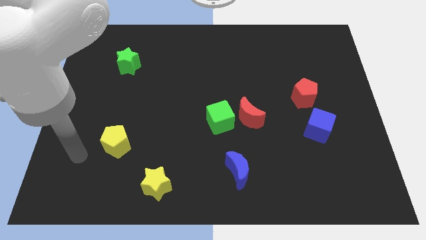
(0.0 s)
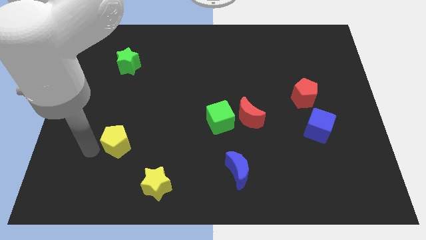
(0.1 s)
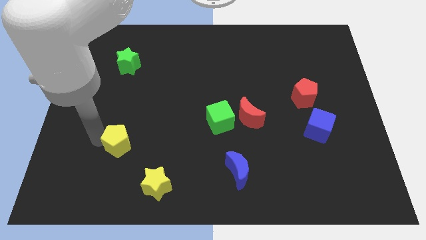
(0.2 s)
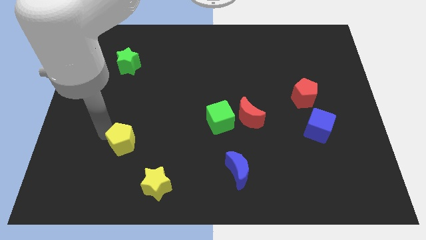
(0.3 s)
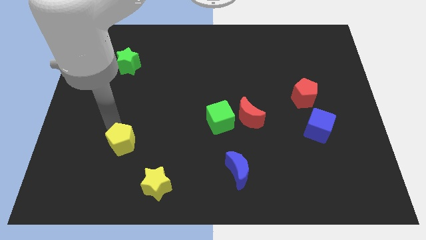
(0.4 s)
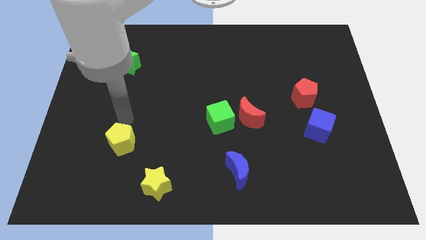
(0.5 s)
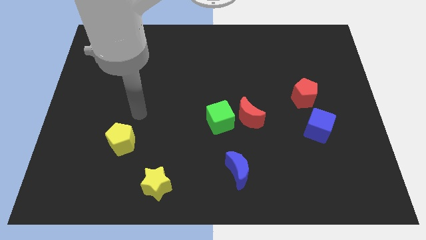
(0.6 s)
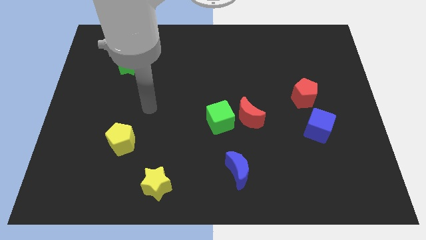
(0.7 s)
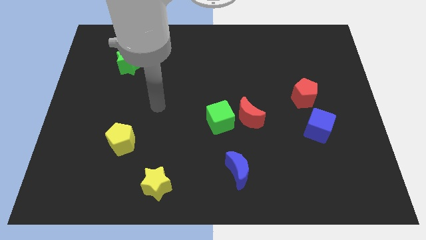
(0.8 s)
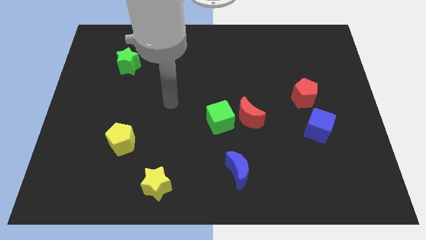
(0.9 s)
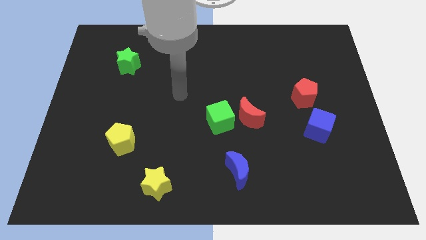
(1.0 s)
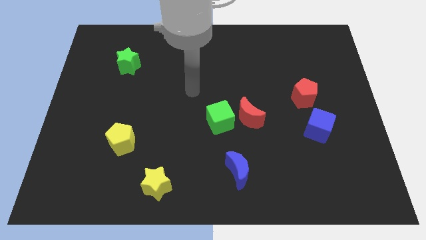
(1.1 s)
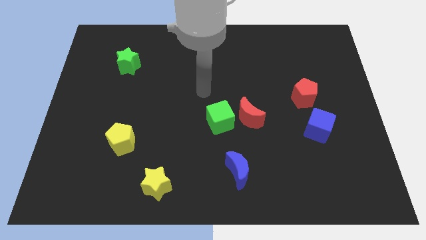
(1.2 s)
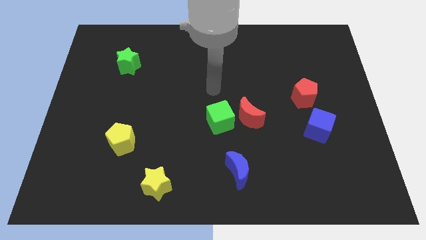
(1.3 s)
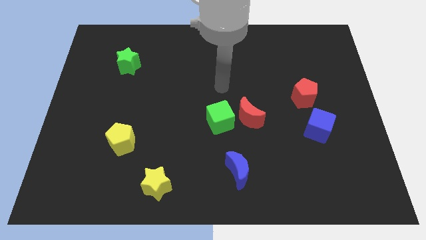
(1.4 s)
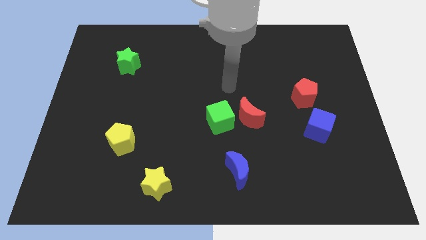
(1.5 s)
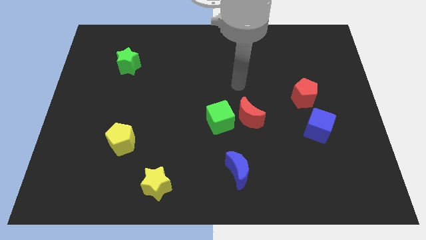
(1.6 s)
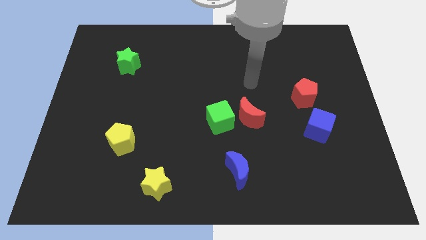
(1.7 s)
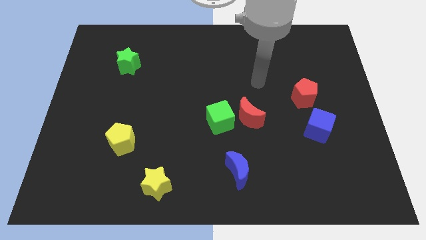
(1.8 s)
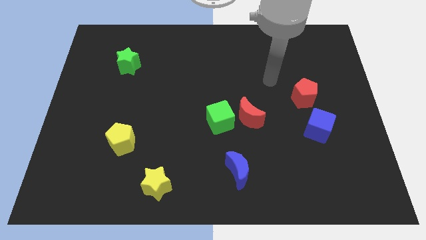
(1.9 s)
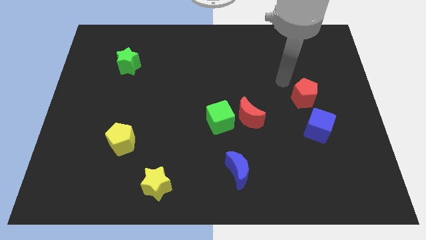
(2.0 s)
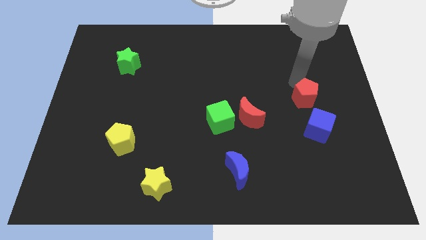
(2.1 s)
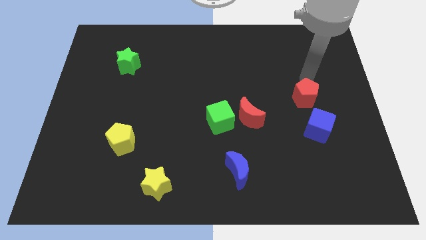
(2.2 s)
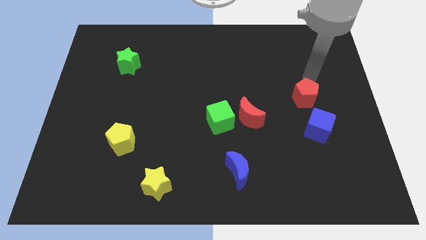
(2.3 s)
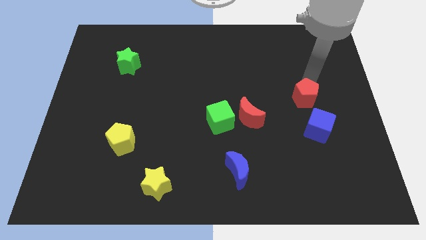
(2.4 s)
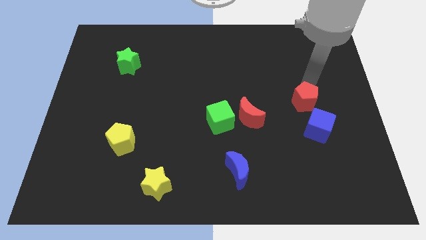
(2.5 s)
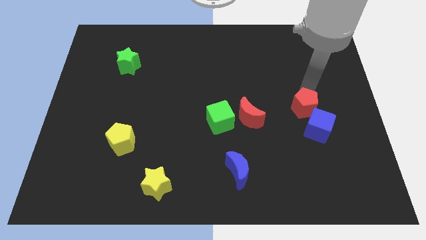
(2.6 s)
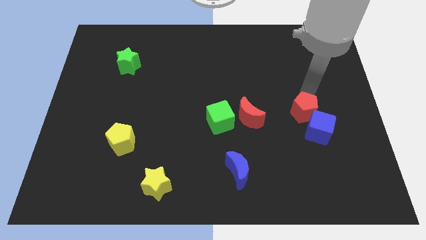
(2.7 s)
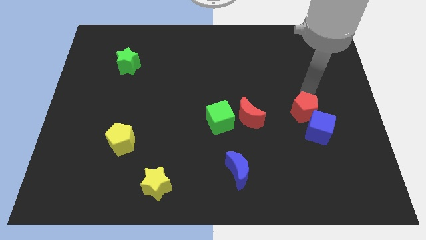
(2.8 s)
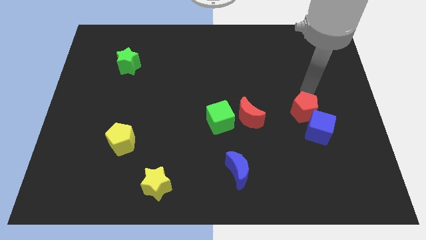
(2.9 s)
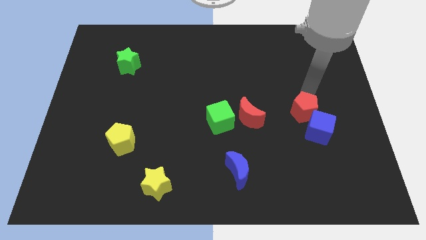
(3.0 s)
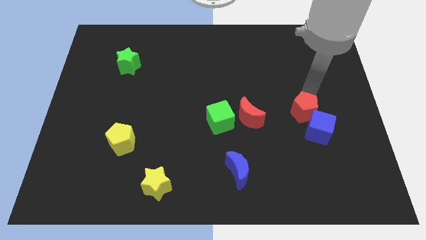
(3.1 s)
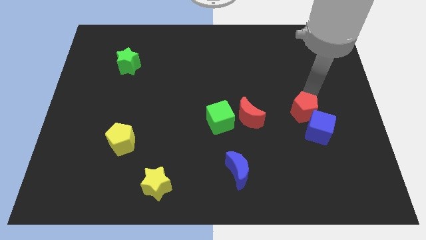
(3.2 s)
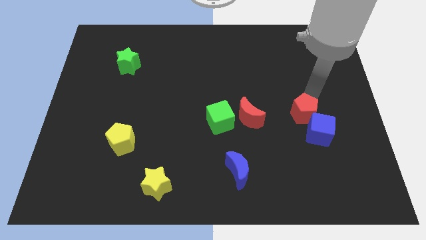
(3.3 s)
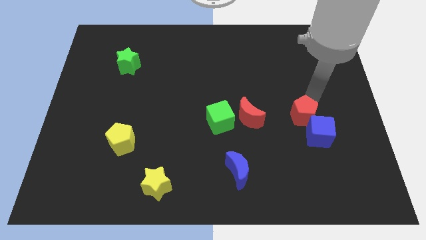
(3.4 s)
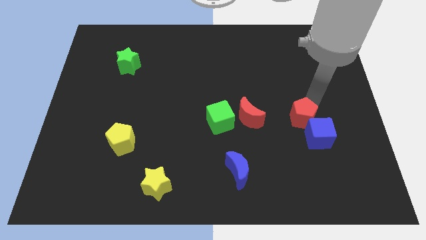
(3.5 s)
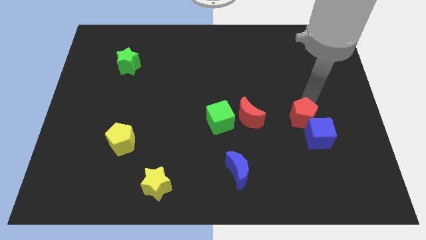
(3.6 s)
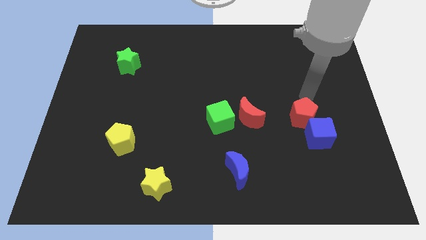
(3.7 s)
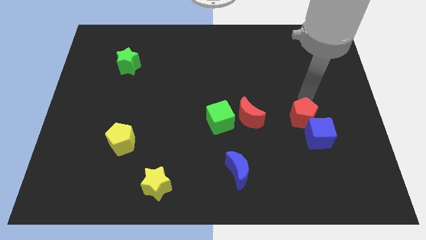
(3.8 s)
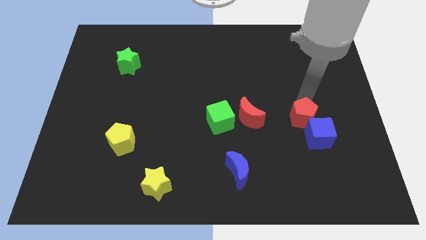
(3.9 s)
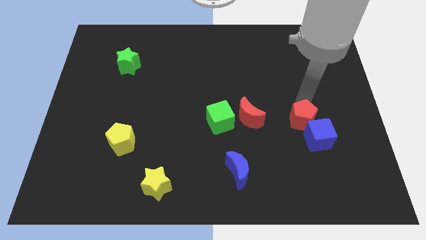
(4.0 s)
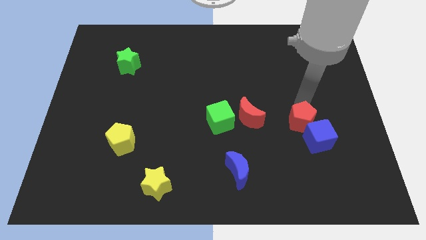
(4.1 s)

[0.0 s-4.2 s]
push the red pentagon a bit down

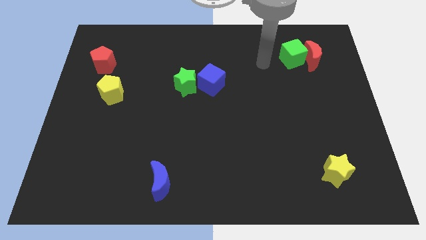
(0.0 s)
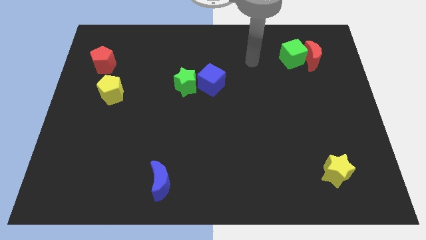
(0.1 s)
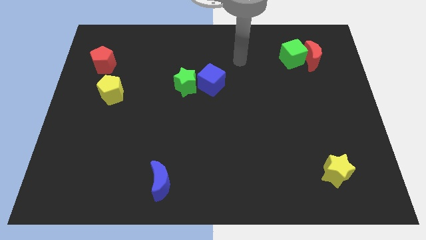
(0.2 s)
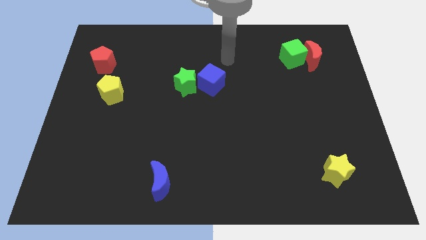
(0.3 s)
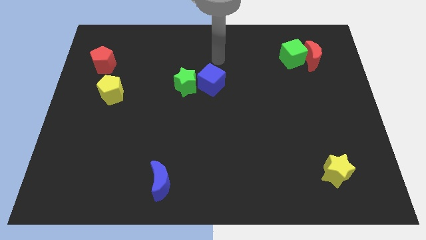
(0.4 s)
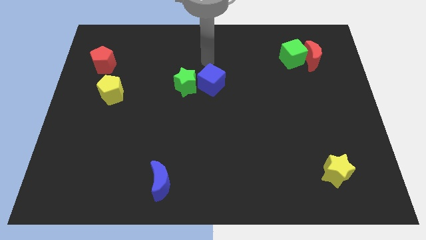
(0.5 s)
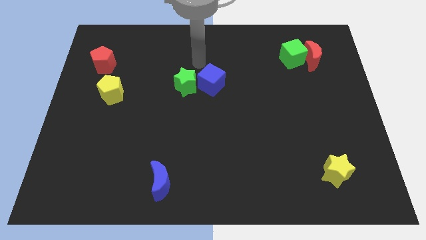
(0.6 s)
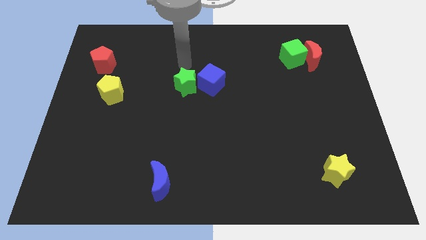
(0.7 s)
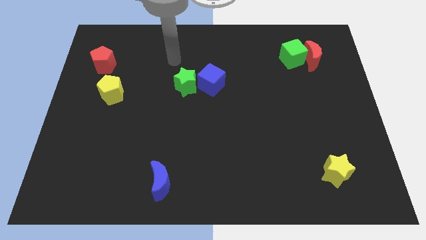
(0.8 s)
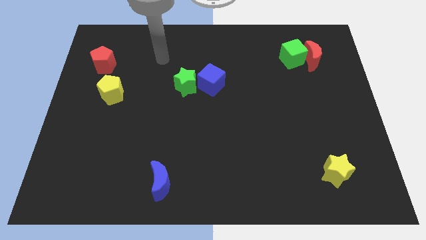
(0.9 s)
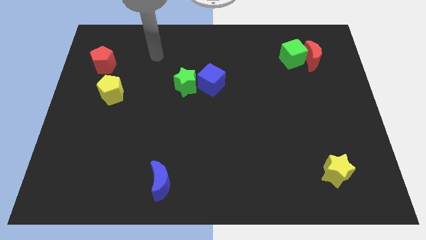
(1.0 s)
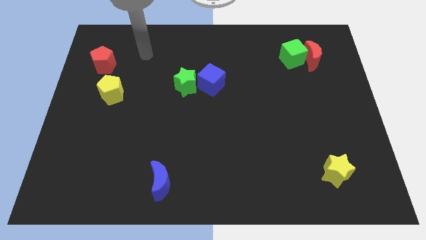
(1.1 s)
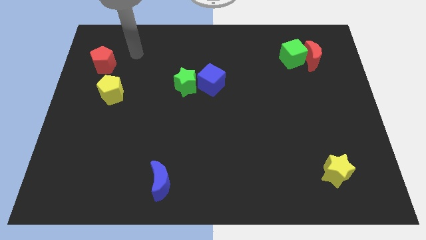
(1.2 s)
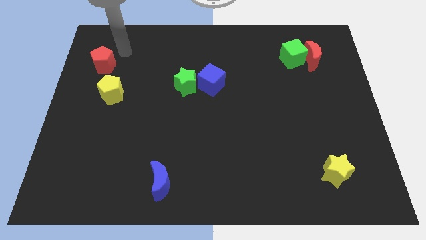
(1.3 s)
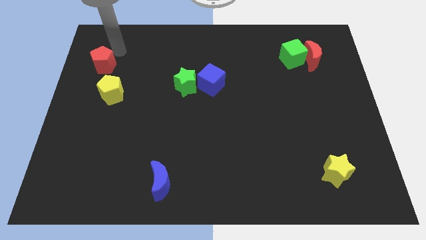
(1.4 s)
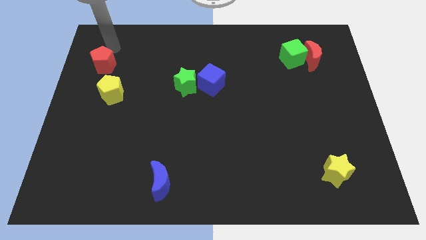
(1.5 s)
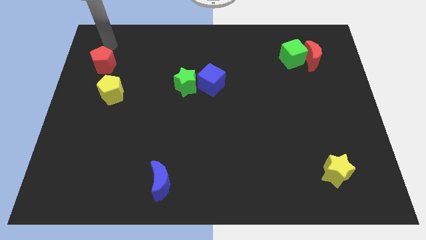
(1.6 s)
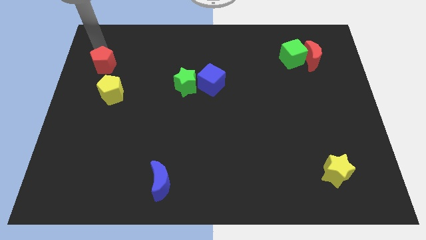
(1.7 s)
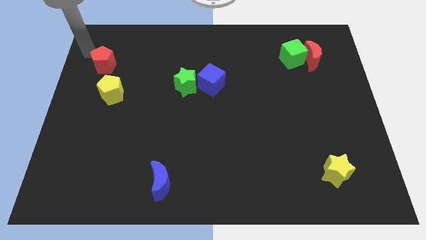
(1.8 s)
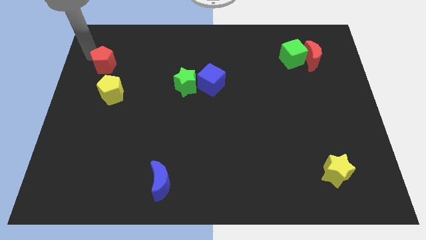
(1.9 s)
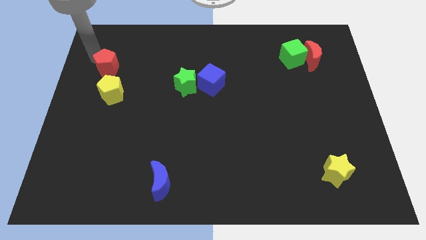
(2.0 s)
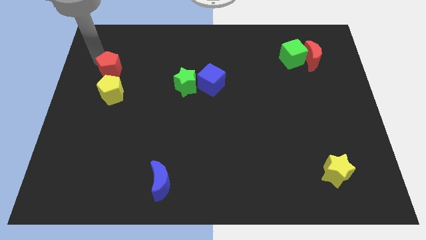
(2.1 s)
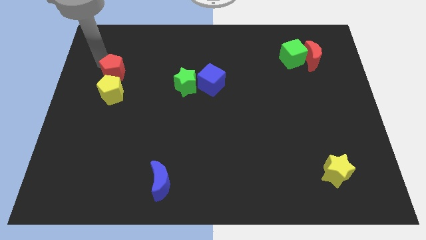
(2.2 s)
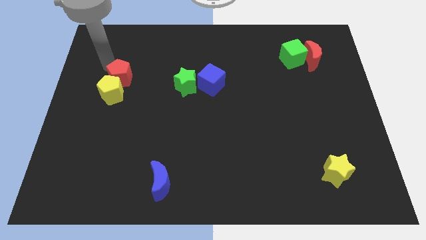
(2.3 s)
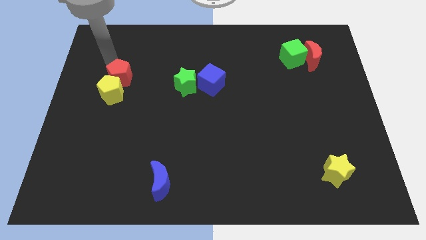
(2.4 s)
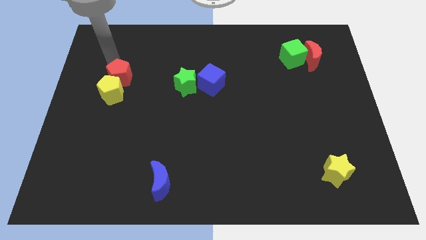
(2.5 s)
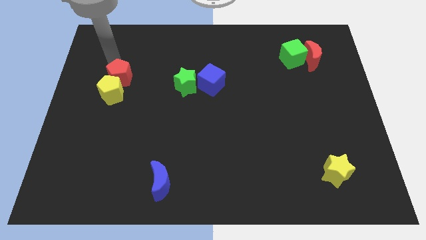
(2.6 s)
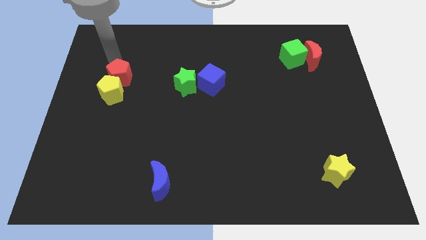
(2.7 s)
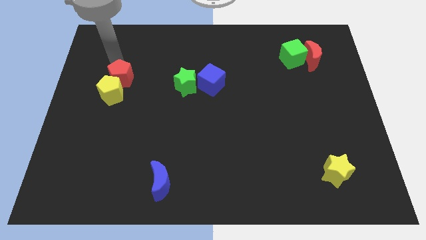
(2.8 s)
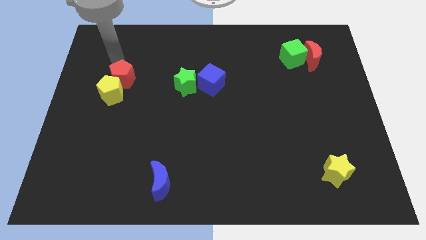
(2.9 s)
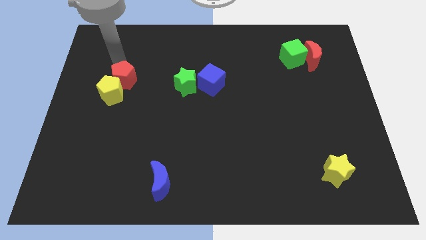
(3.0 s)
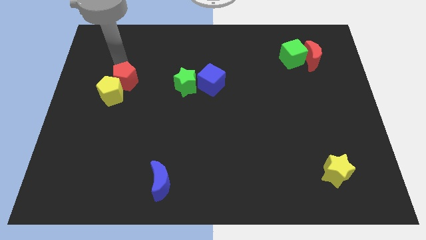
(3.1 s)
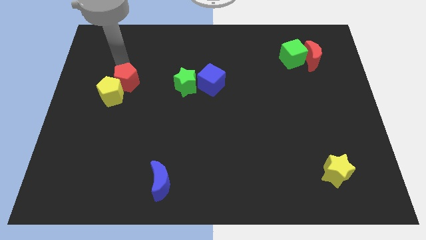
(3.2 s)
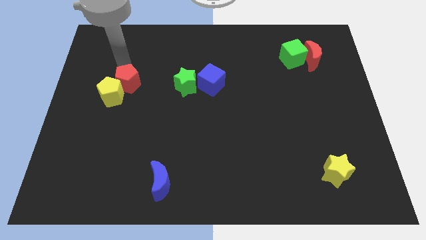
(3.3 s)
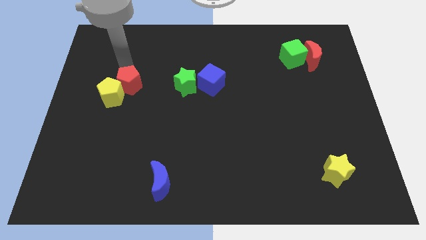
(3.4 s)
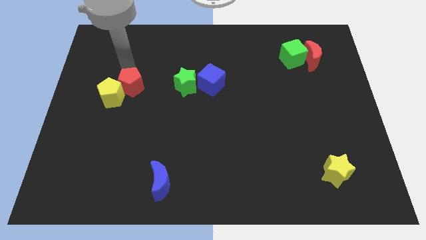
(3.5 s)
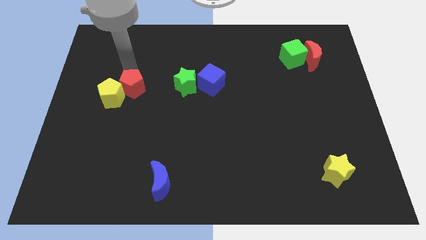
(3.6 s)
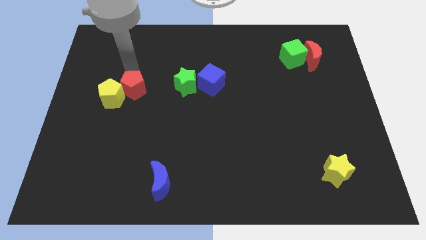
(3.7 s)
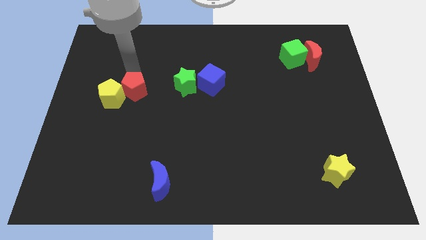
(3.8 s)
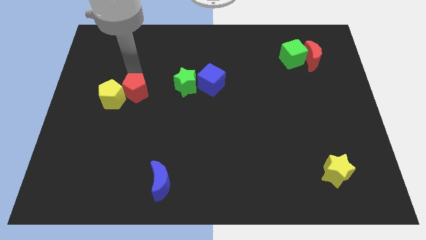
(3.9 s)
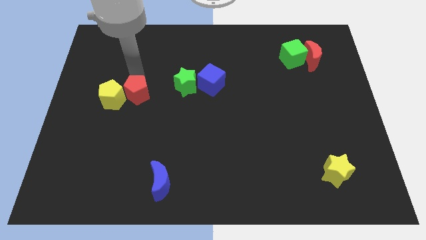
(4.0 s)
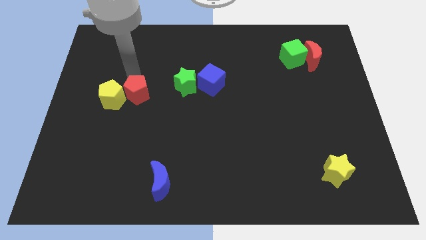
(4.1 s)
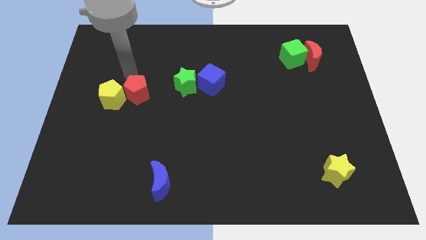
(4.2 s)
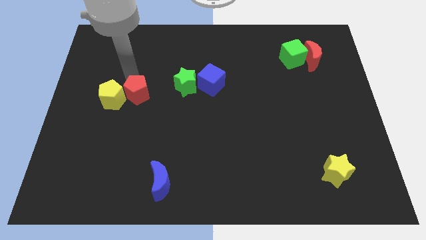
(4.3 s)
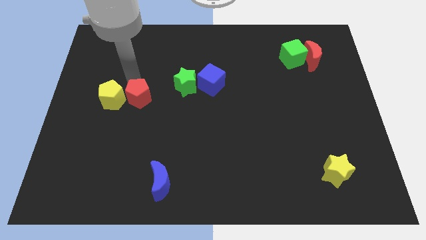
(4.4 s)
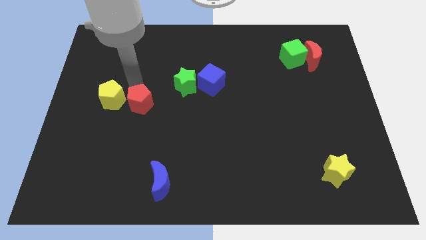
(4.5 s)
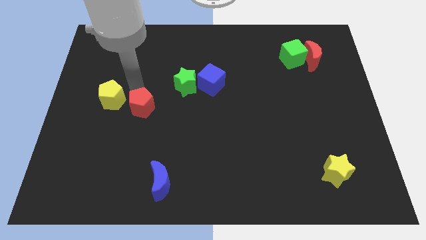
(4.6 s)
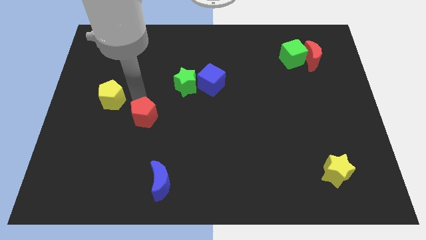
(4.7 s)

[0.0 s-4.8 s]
move the red pentagon downwards and then to the right
